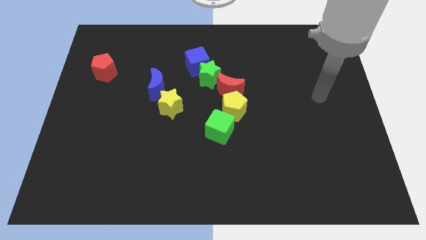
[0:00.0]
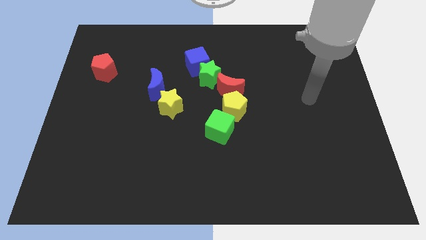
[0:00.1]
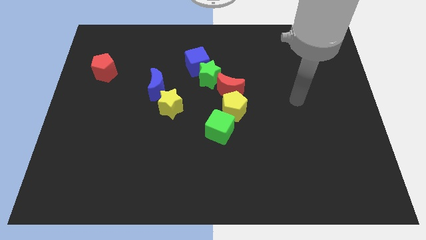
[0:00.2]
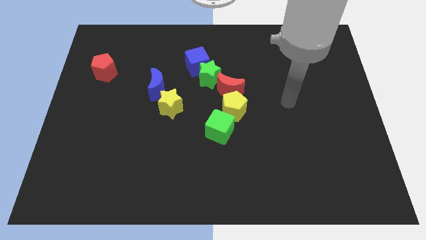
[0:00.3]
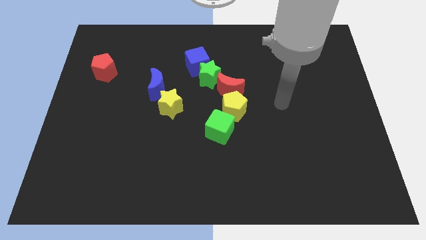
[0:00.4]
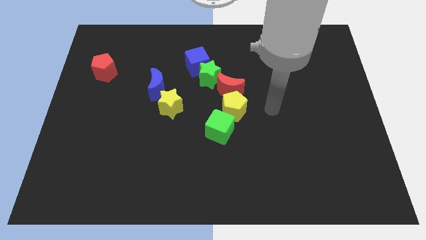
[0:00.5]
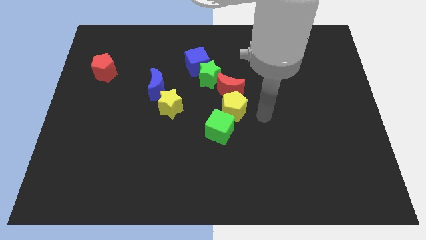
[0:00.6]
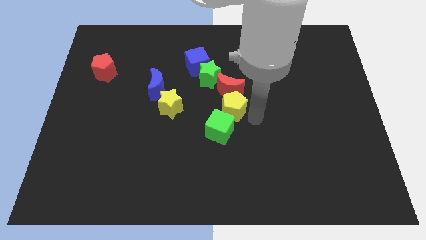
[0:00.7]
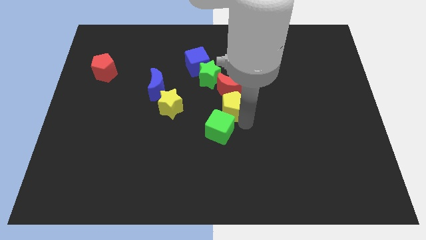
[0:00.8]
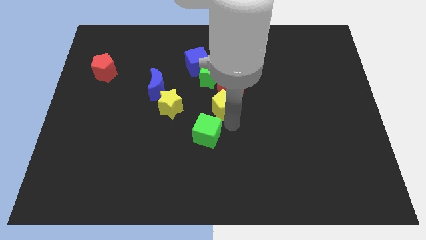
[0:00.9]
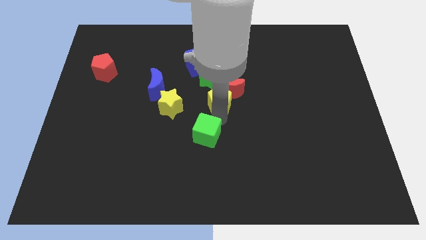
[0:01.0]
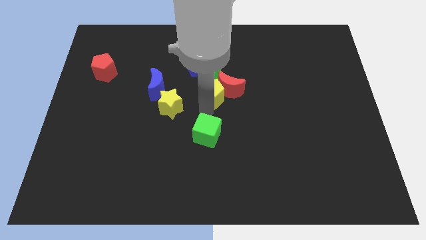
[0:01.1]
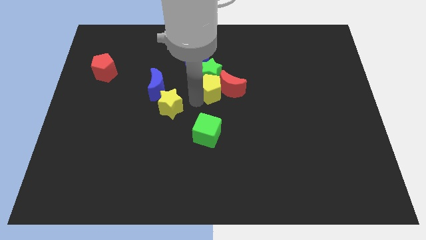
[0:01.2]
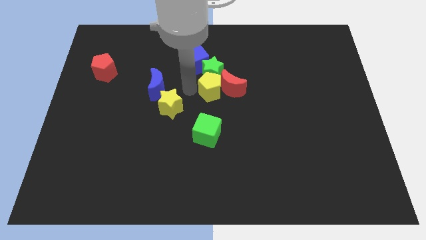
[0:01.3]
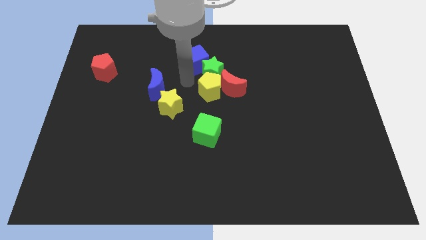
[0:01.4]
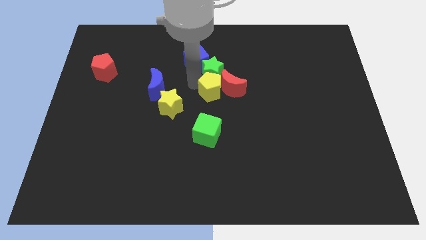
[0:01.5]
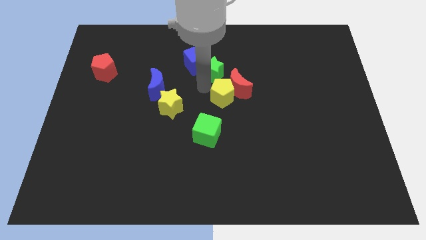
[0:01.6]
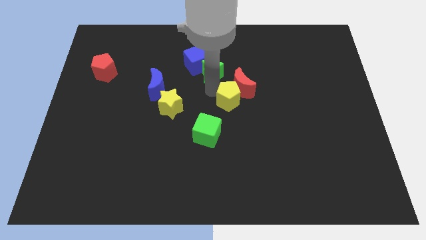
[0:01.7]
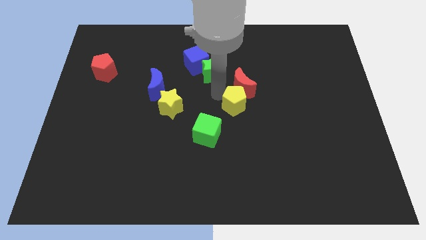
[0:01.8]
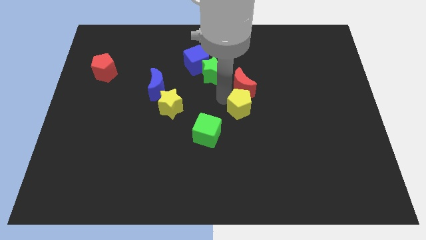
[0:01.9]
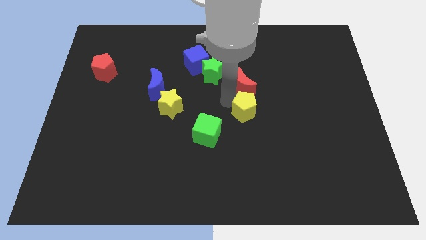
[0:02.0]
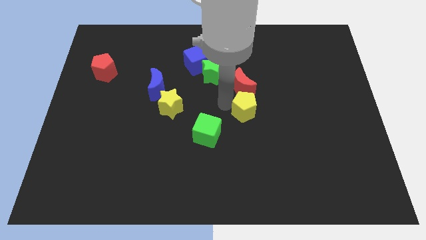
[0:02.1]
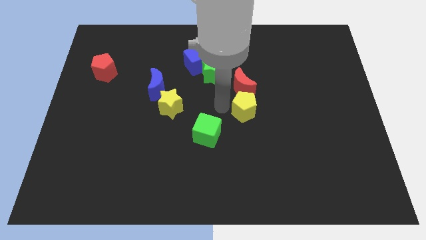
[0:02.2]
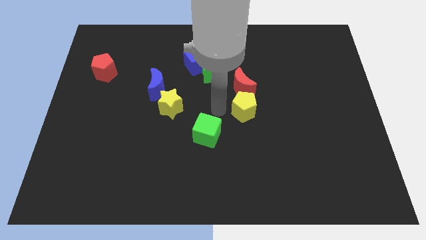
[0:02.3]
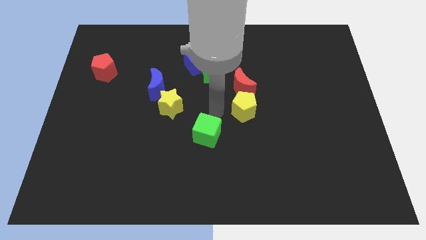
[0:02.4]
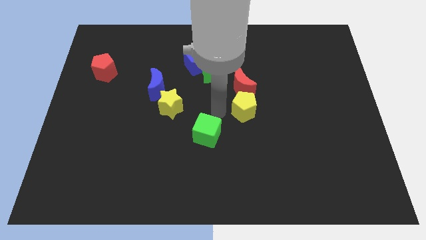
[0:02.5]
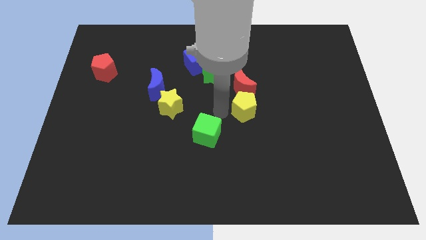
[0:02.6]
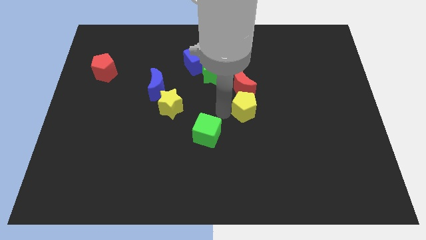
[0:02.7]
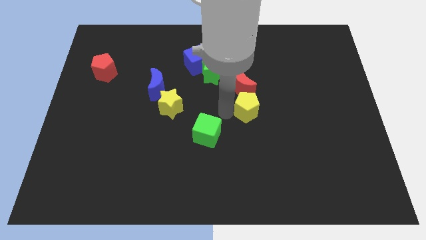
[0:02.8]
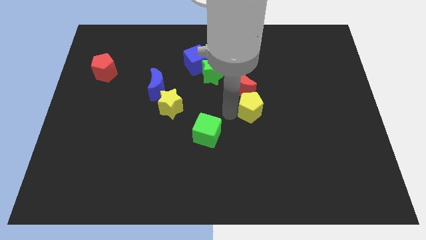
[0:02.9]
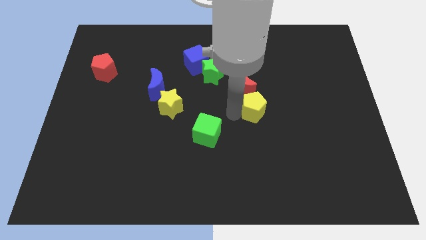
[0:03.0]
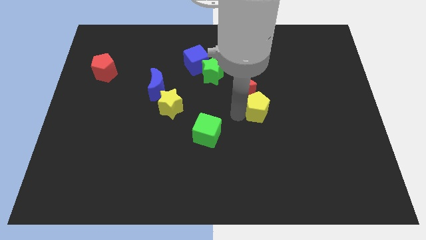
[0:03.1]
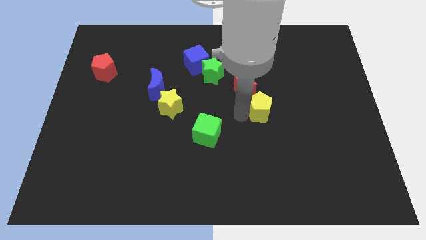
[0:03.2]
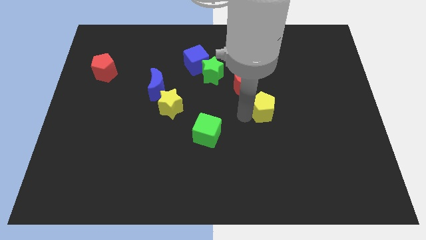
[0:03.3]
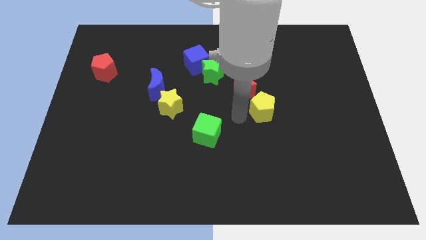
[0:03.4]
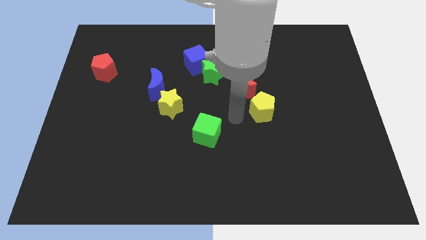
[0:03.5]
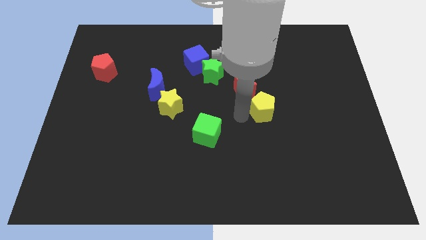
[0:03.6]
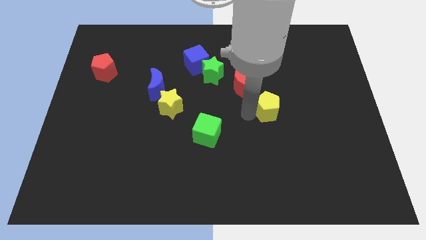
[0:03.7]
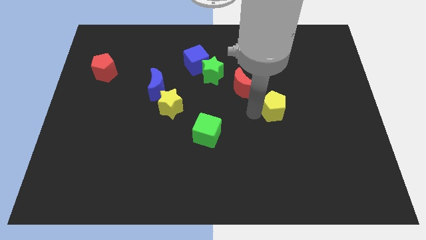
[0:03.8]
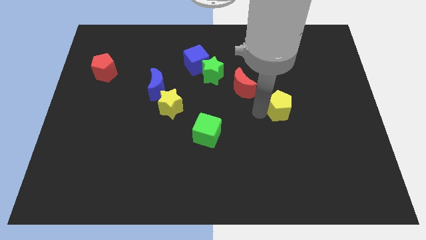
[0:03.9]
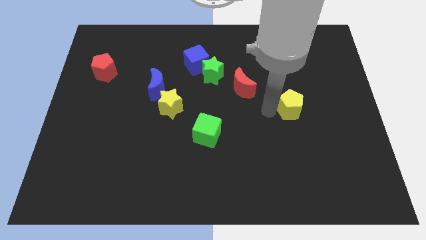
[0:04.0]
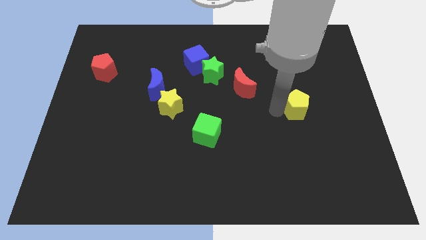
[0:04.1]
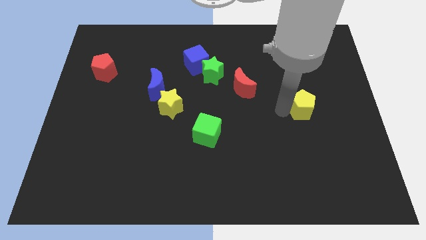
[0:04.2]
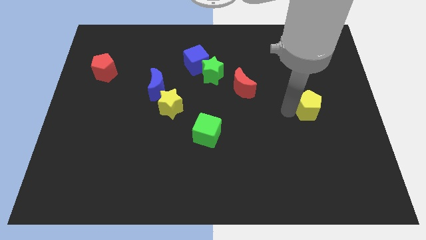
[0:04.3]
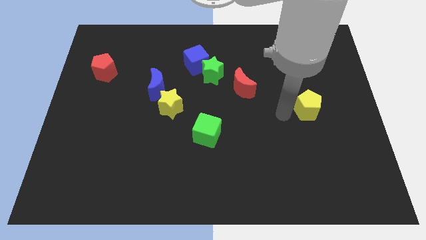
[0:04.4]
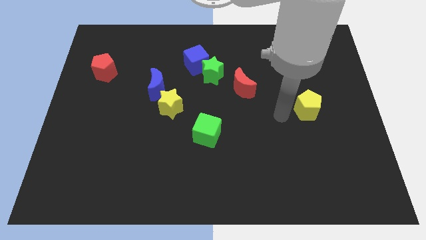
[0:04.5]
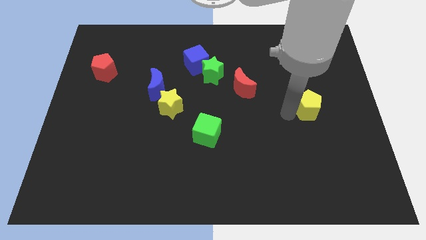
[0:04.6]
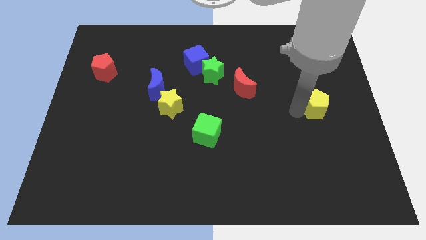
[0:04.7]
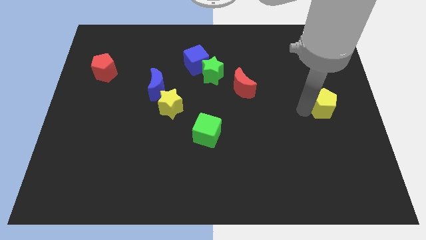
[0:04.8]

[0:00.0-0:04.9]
move the yellow pentagon to the right side

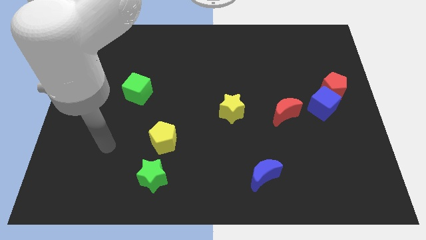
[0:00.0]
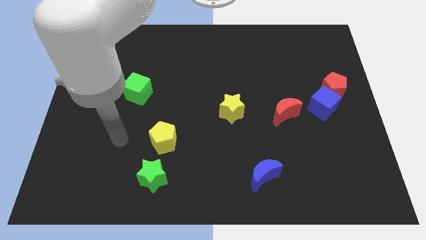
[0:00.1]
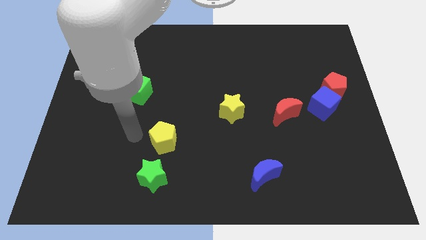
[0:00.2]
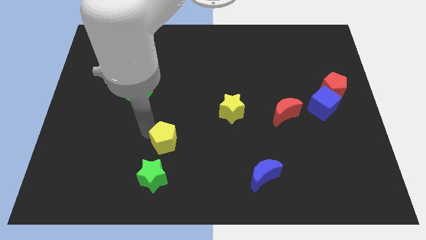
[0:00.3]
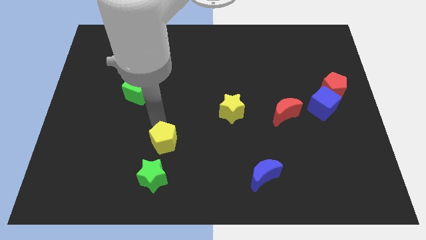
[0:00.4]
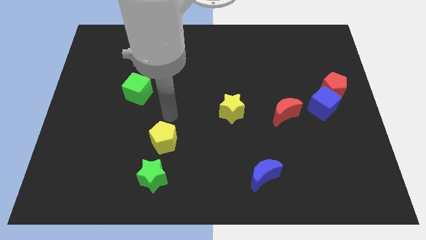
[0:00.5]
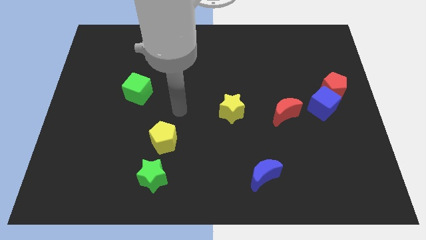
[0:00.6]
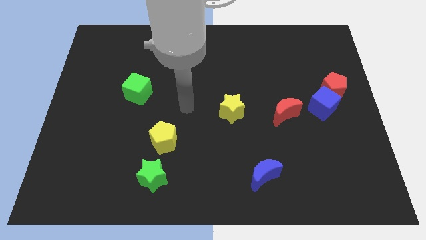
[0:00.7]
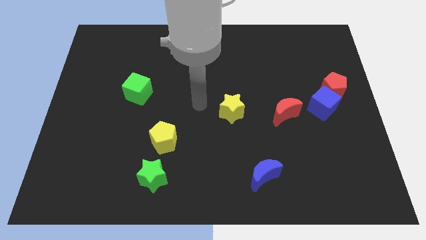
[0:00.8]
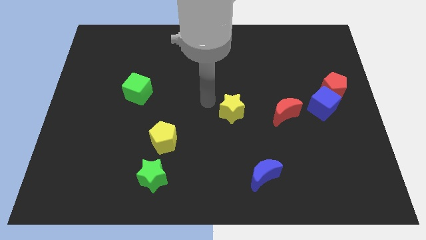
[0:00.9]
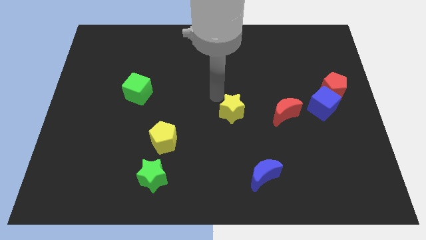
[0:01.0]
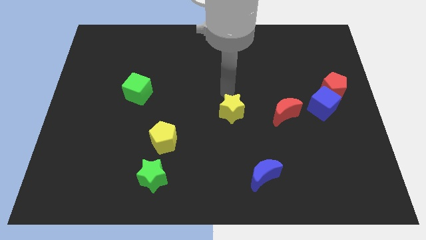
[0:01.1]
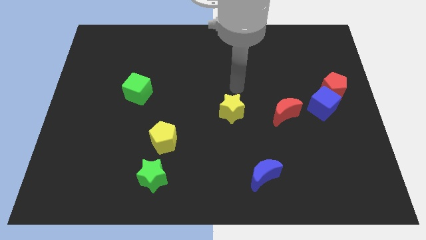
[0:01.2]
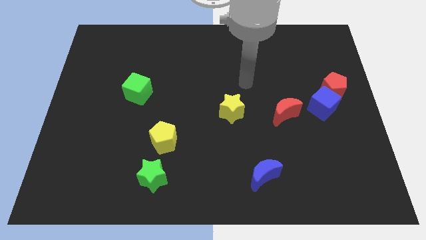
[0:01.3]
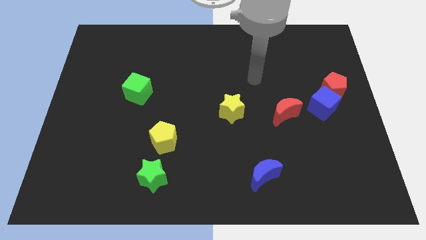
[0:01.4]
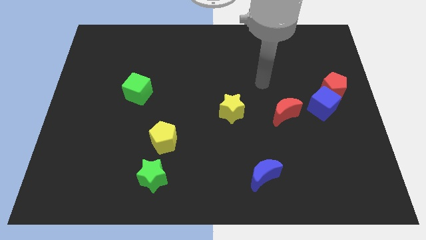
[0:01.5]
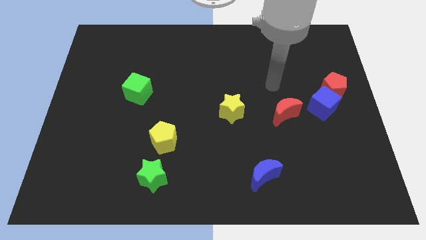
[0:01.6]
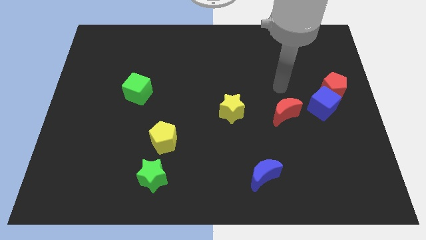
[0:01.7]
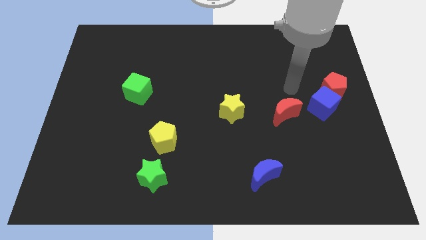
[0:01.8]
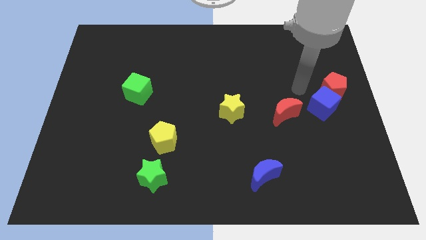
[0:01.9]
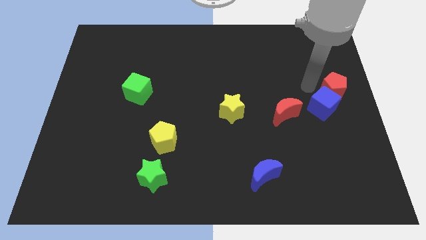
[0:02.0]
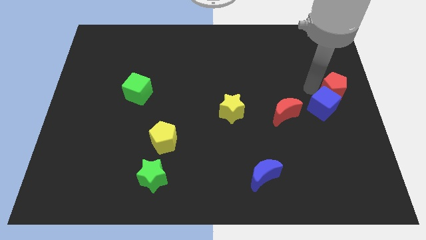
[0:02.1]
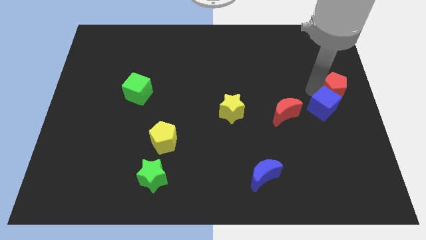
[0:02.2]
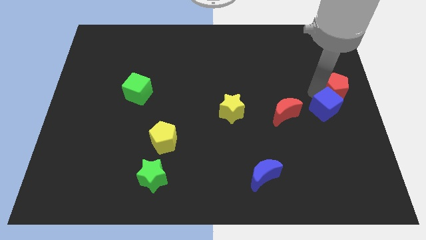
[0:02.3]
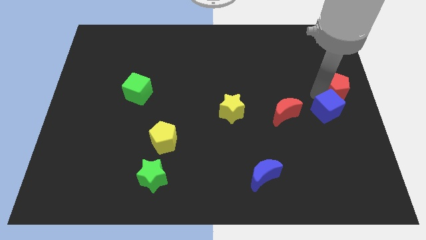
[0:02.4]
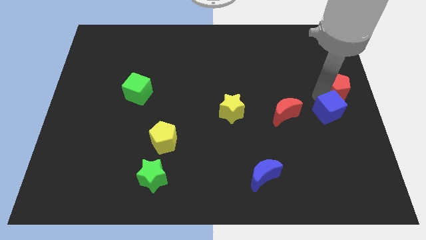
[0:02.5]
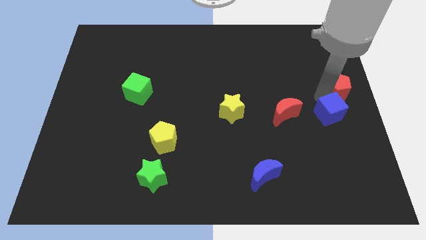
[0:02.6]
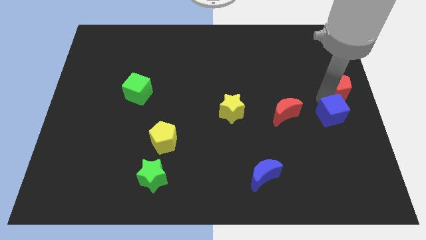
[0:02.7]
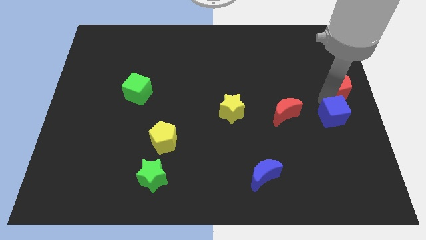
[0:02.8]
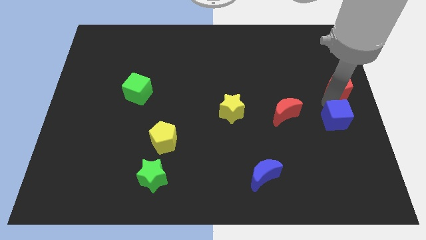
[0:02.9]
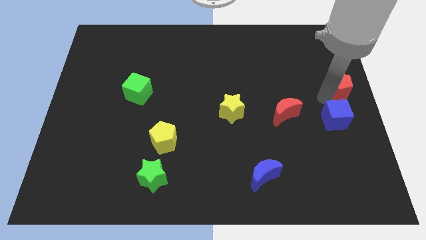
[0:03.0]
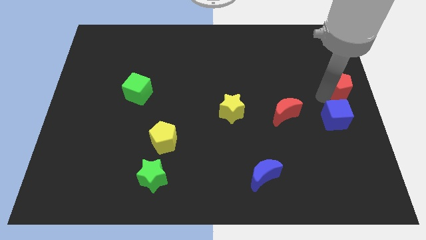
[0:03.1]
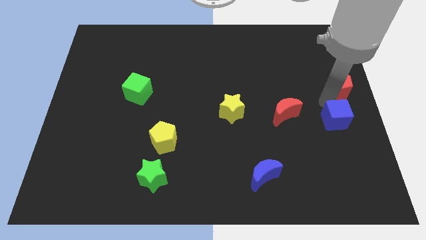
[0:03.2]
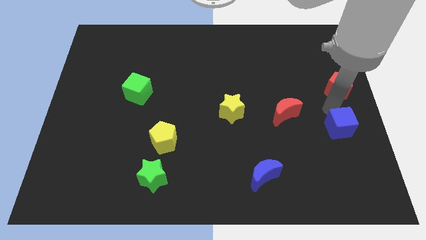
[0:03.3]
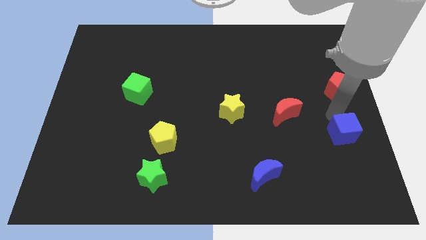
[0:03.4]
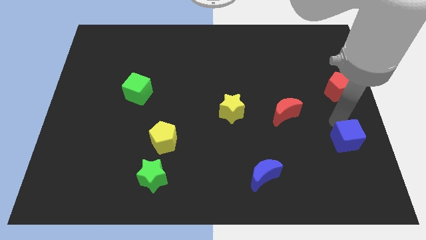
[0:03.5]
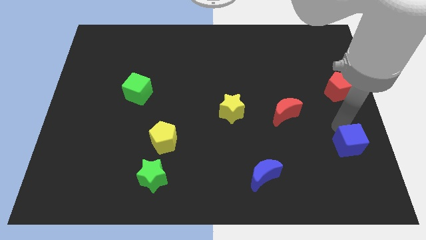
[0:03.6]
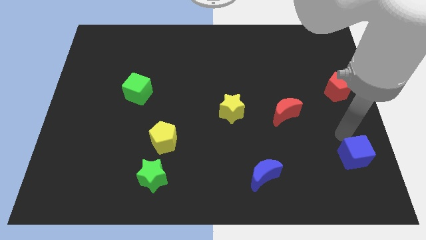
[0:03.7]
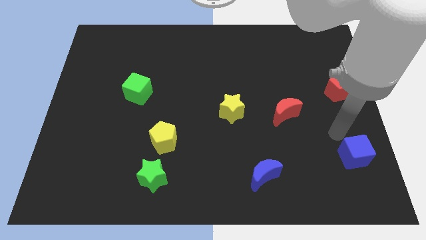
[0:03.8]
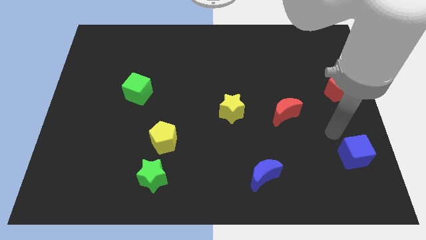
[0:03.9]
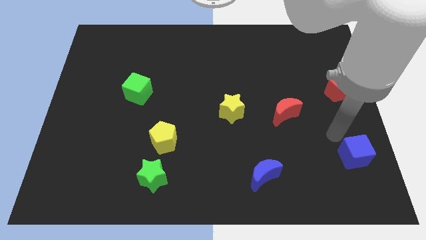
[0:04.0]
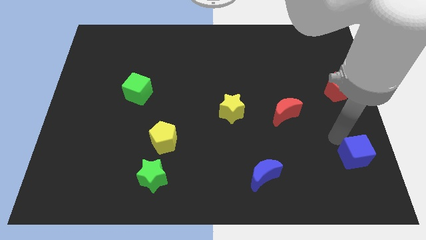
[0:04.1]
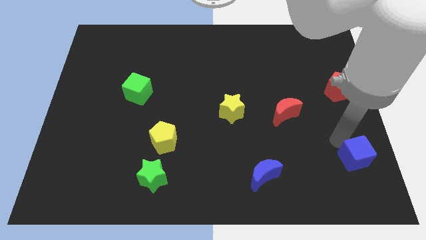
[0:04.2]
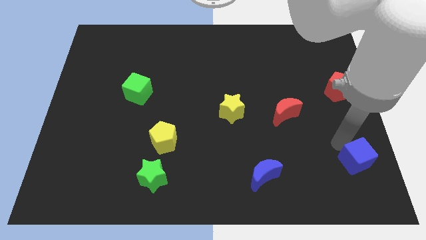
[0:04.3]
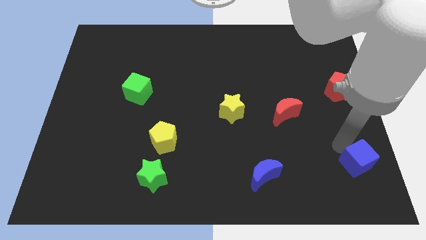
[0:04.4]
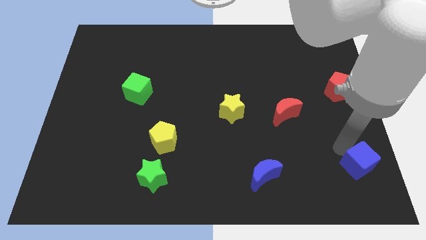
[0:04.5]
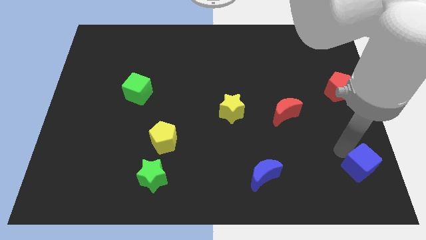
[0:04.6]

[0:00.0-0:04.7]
push the blue cube to the bottom right
